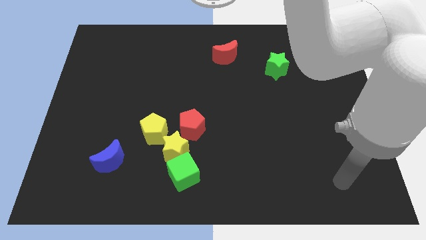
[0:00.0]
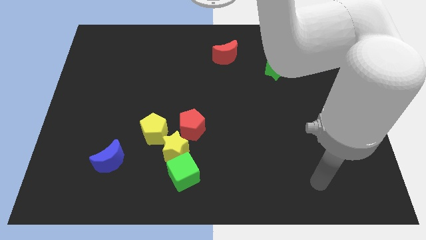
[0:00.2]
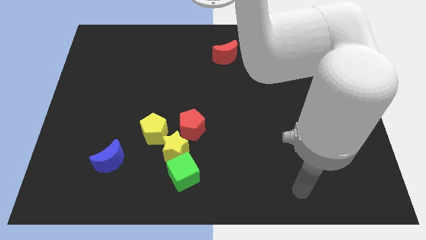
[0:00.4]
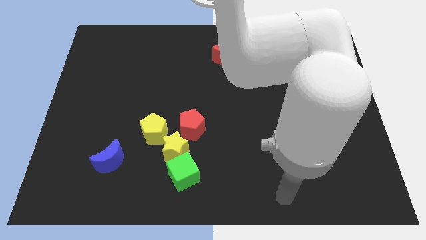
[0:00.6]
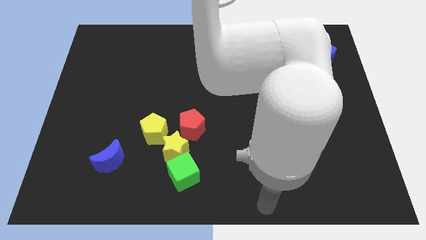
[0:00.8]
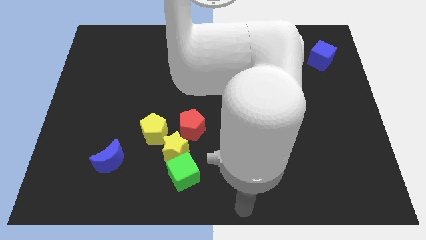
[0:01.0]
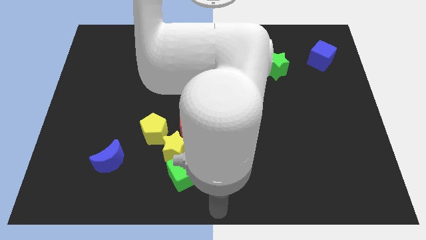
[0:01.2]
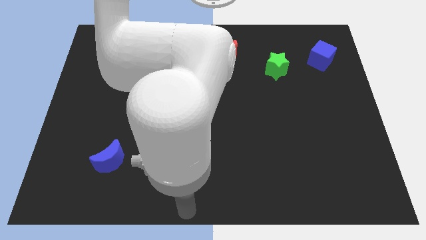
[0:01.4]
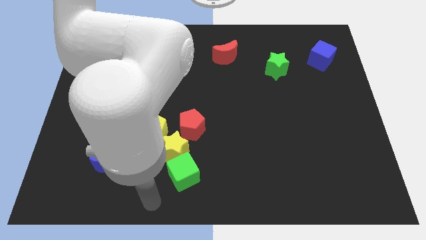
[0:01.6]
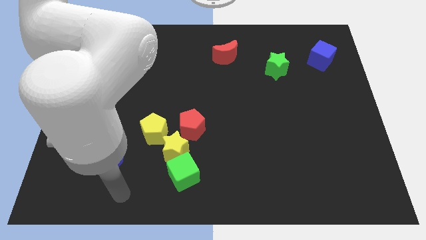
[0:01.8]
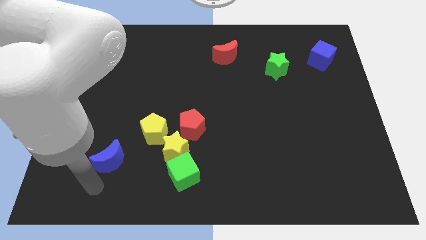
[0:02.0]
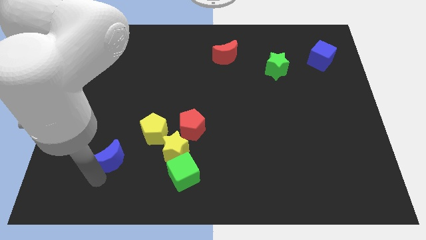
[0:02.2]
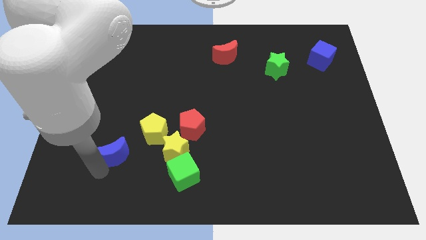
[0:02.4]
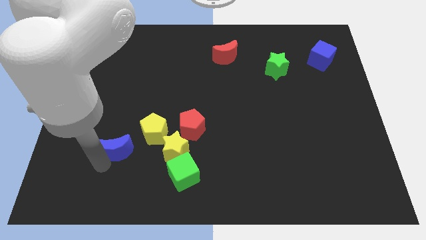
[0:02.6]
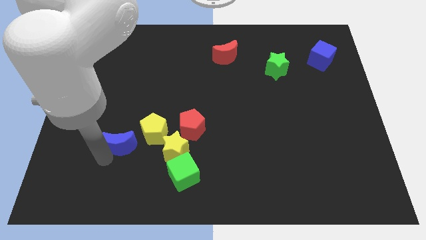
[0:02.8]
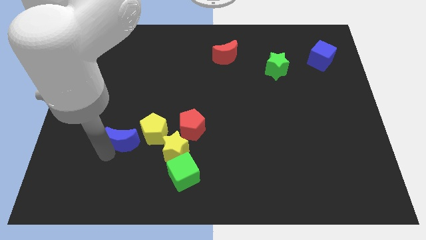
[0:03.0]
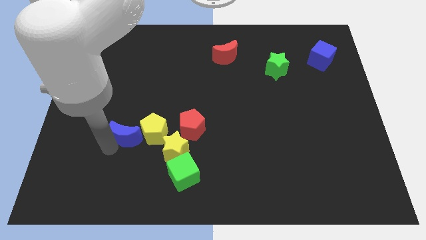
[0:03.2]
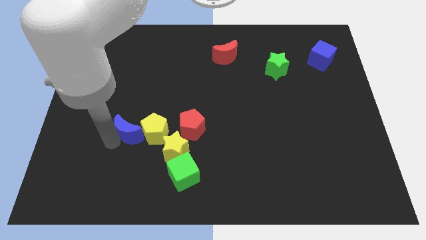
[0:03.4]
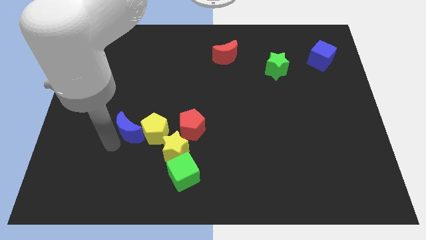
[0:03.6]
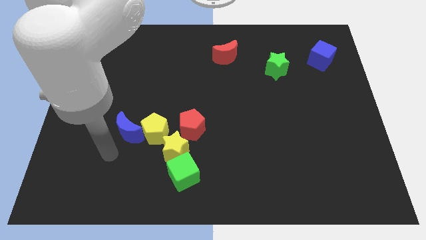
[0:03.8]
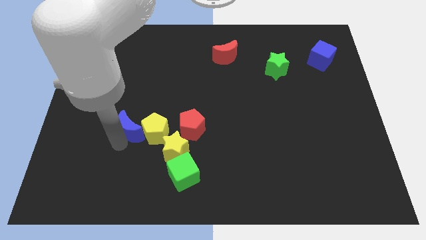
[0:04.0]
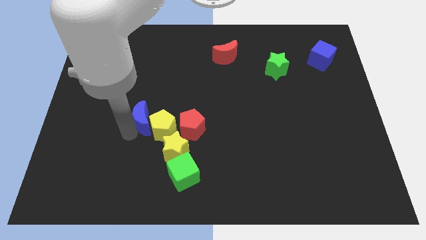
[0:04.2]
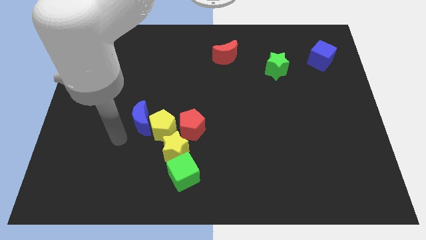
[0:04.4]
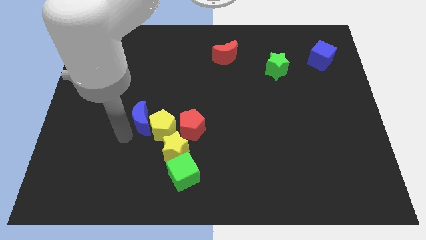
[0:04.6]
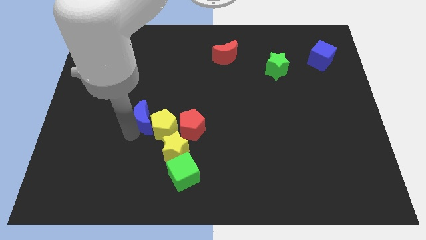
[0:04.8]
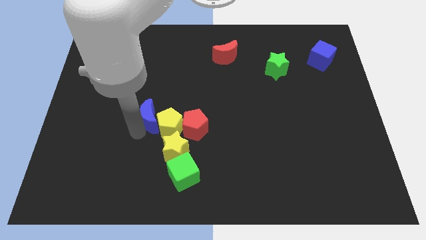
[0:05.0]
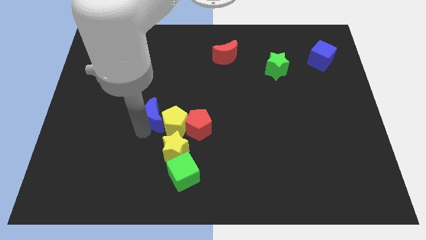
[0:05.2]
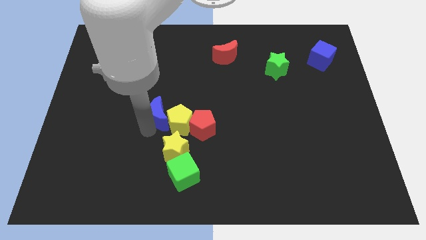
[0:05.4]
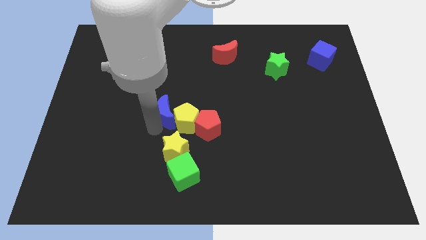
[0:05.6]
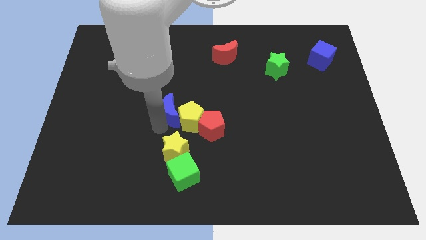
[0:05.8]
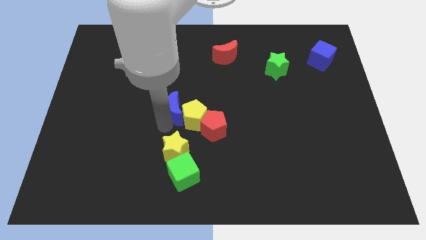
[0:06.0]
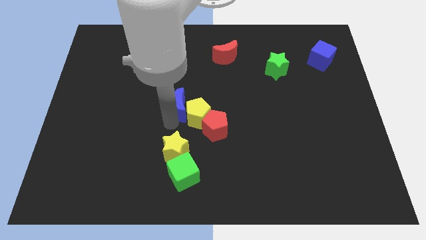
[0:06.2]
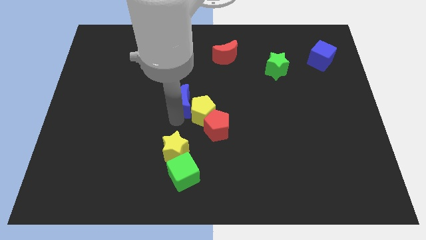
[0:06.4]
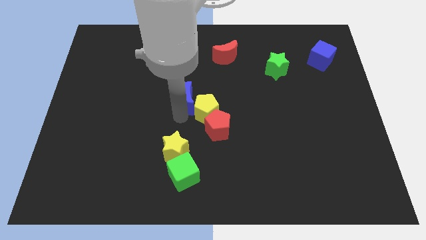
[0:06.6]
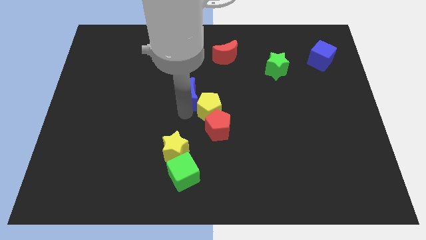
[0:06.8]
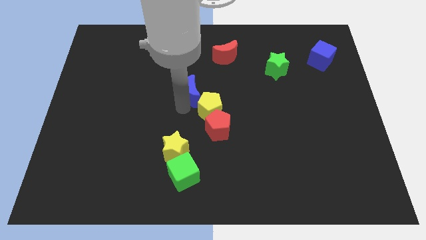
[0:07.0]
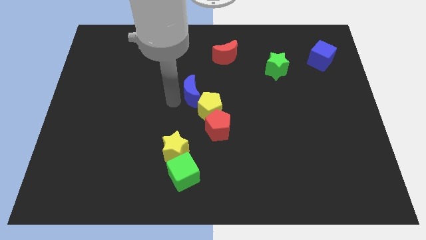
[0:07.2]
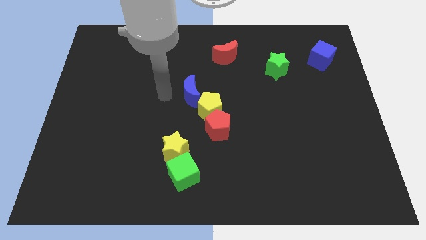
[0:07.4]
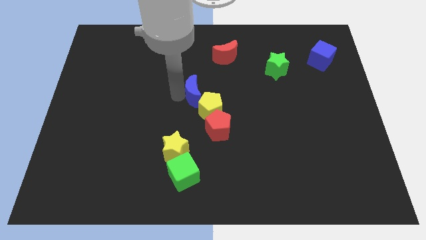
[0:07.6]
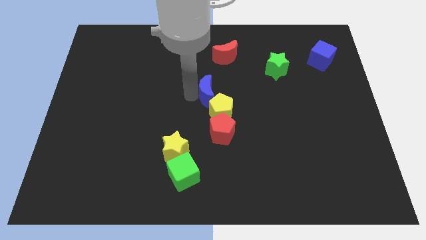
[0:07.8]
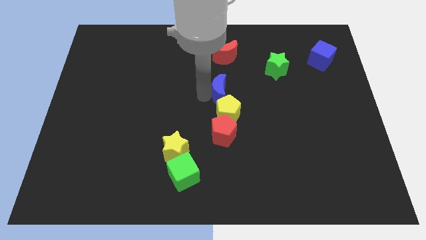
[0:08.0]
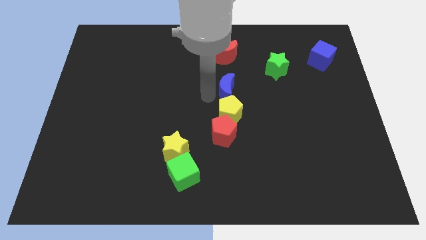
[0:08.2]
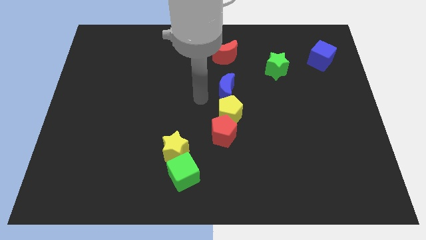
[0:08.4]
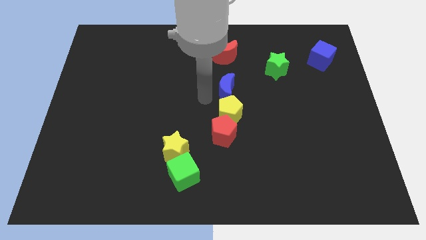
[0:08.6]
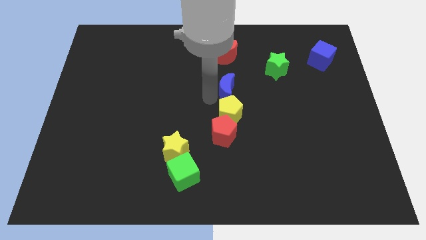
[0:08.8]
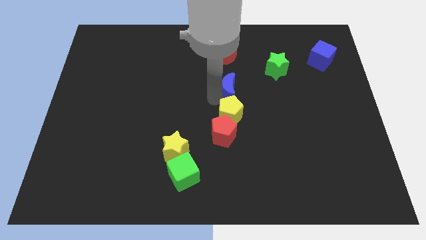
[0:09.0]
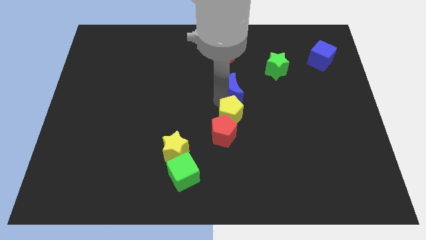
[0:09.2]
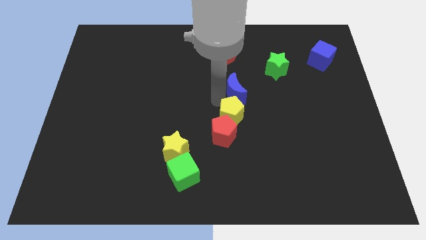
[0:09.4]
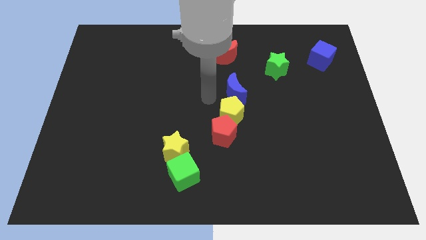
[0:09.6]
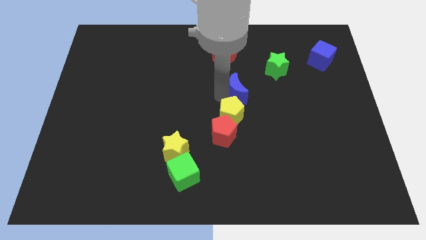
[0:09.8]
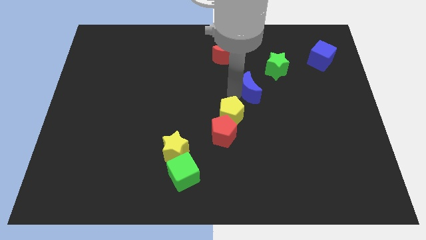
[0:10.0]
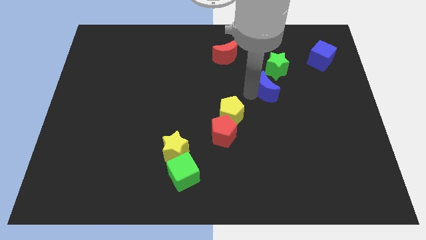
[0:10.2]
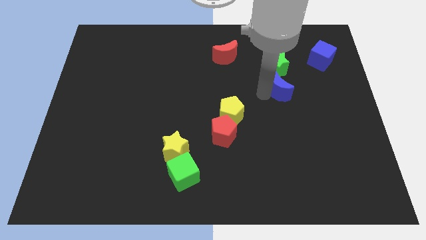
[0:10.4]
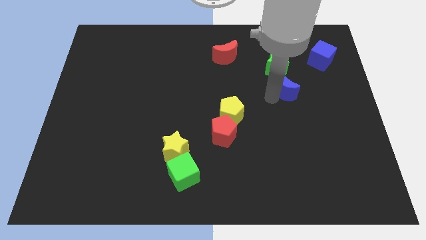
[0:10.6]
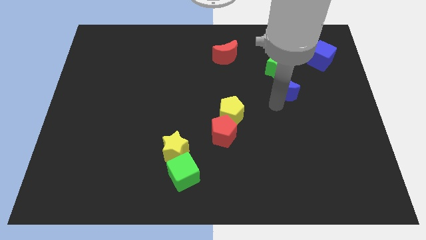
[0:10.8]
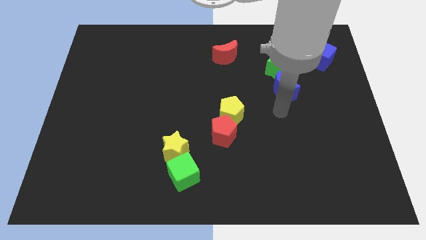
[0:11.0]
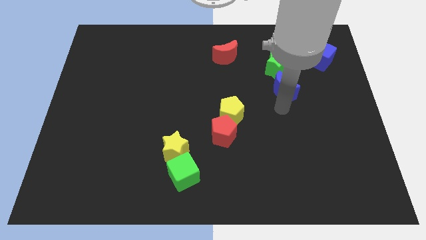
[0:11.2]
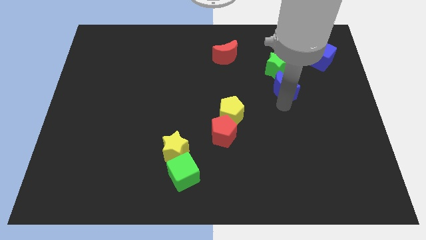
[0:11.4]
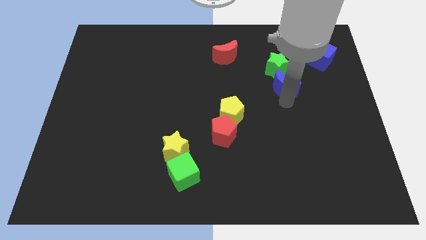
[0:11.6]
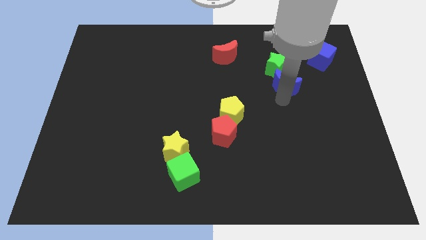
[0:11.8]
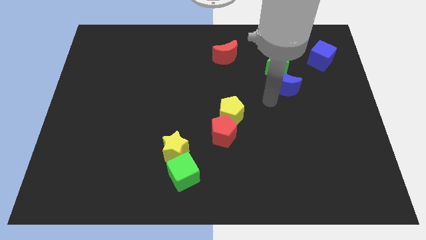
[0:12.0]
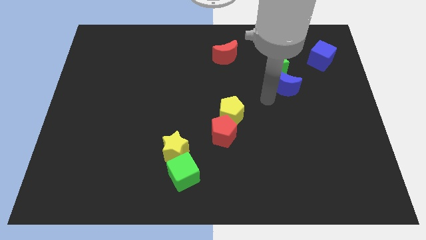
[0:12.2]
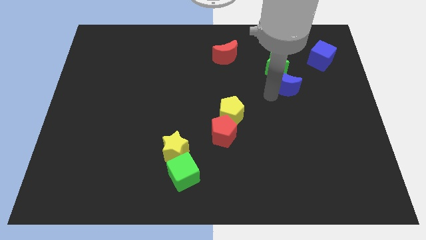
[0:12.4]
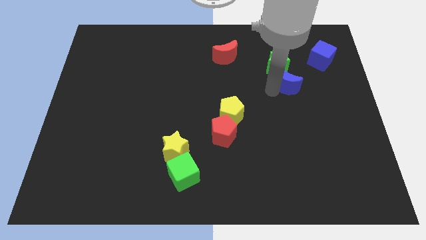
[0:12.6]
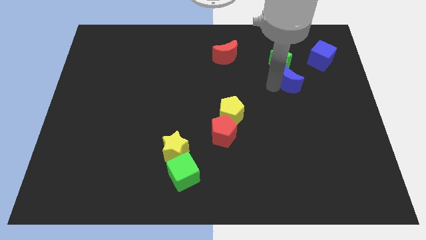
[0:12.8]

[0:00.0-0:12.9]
move the blue moon to the bottom left of the blue cube

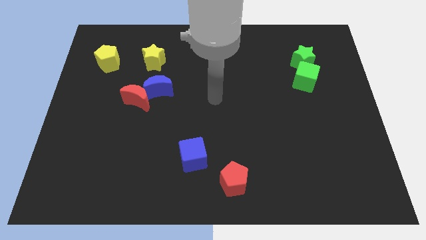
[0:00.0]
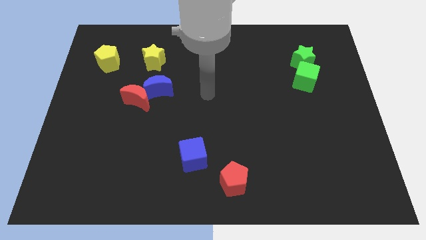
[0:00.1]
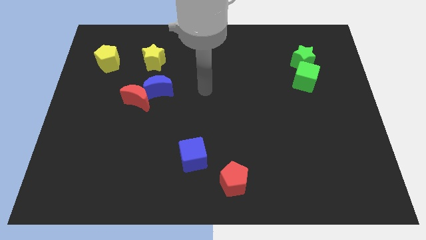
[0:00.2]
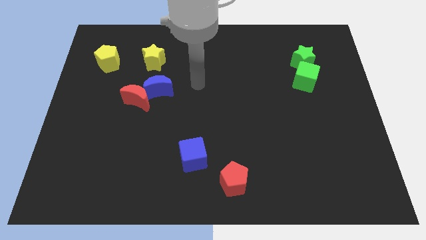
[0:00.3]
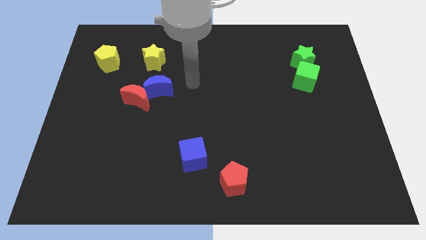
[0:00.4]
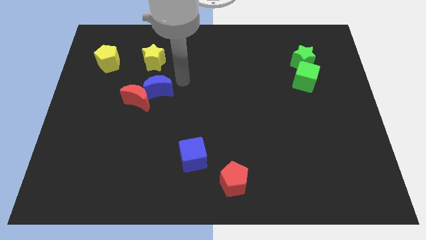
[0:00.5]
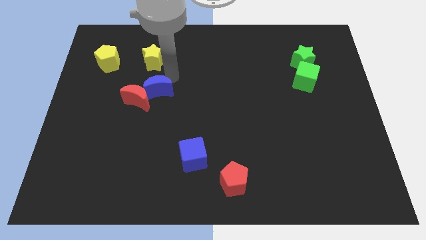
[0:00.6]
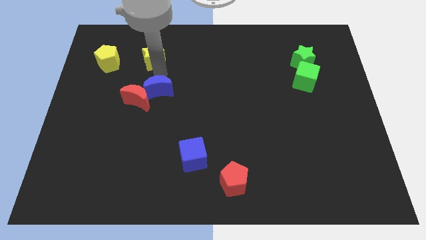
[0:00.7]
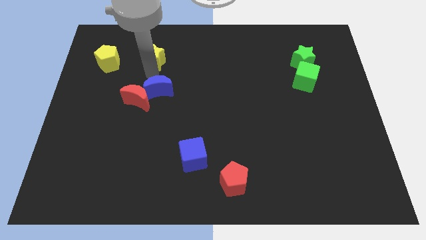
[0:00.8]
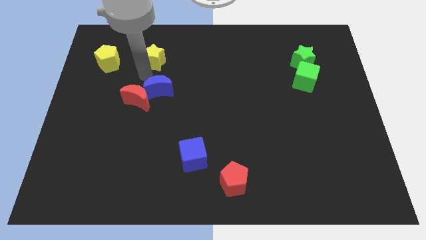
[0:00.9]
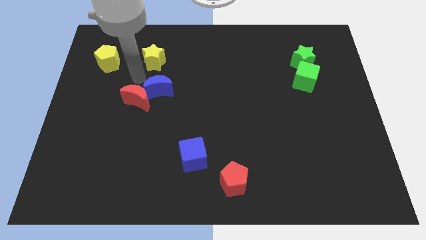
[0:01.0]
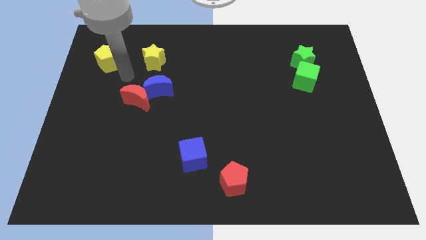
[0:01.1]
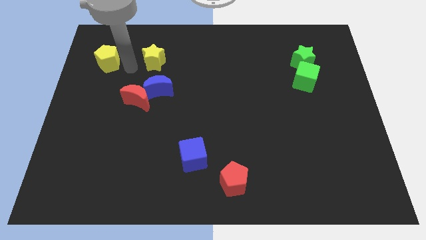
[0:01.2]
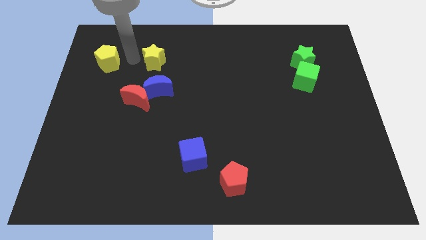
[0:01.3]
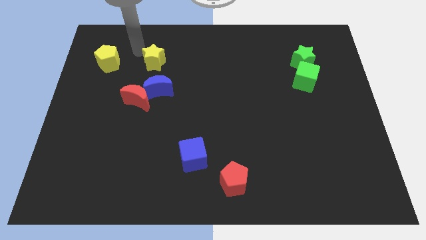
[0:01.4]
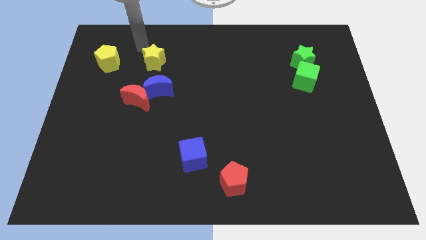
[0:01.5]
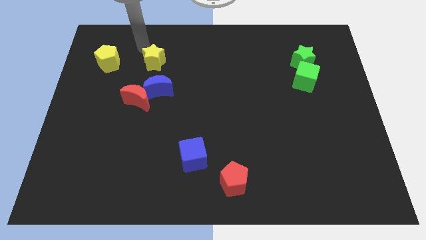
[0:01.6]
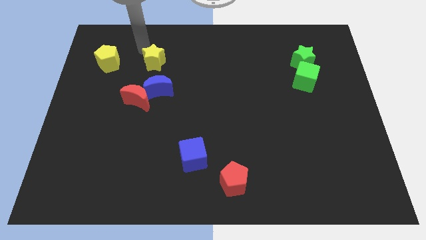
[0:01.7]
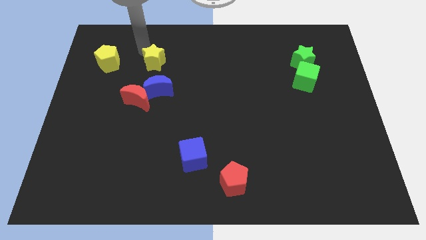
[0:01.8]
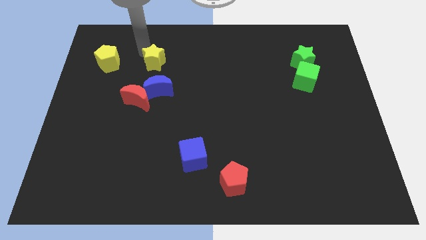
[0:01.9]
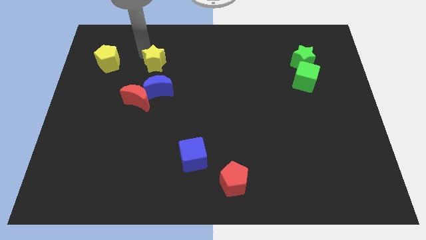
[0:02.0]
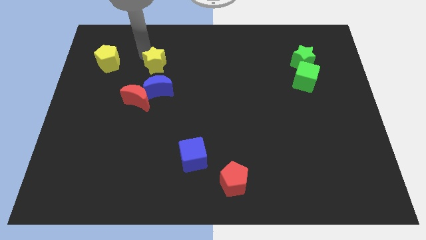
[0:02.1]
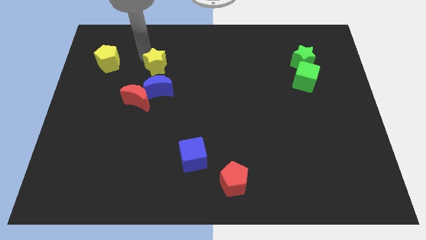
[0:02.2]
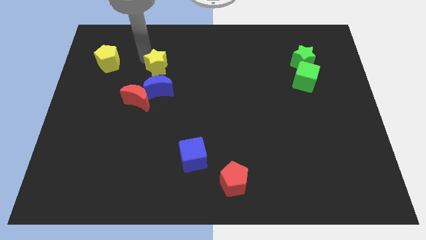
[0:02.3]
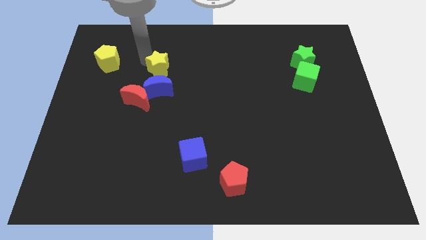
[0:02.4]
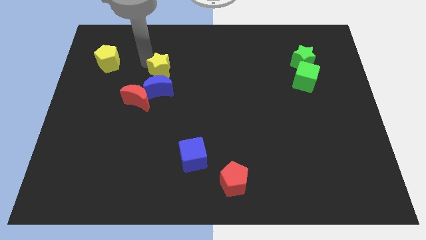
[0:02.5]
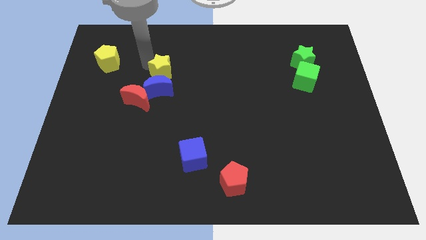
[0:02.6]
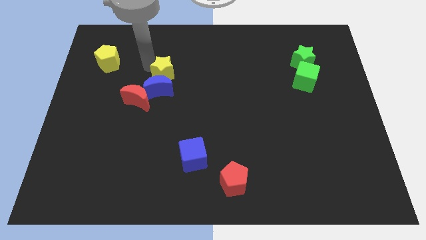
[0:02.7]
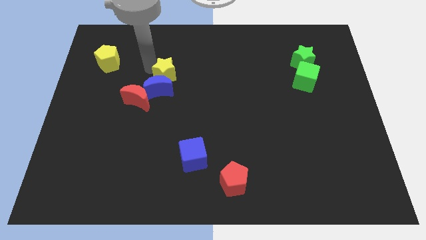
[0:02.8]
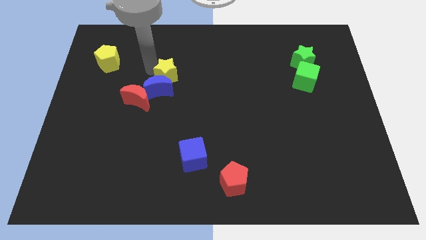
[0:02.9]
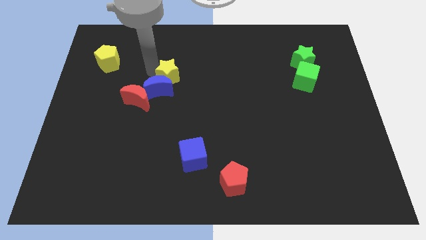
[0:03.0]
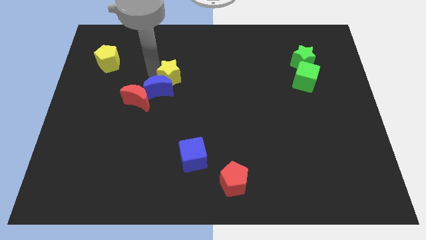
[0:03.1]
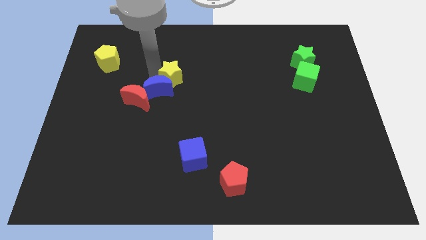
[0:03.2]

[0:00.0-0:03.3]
put the yellow star just right of the blue moon
